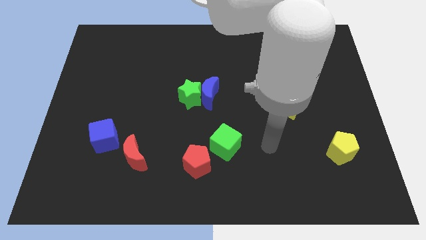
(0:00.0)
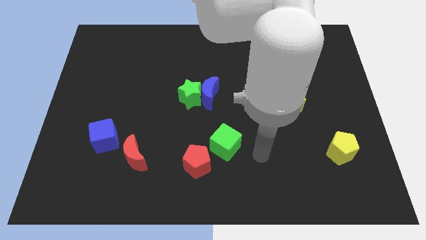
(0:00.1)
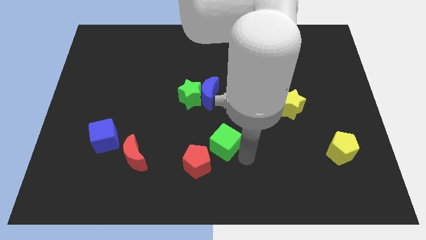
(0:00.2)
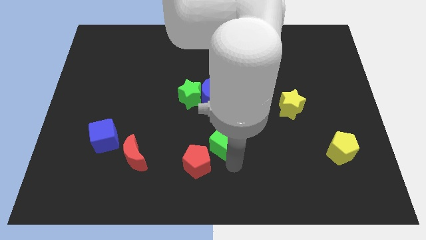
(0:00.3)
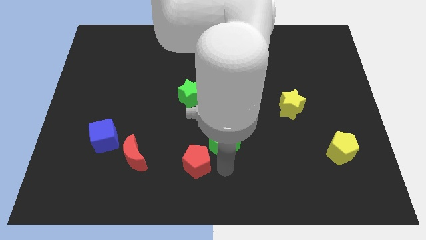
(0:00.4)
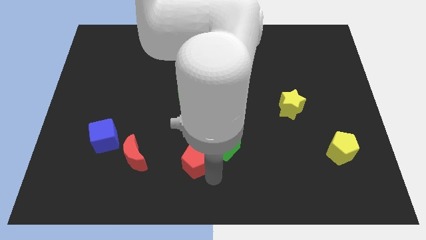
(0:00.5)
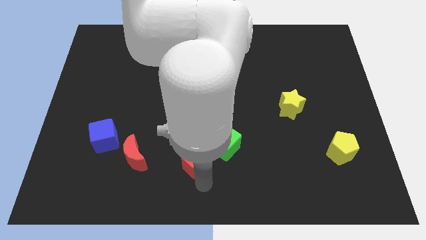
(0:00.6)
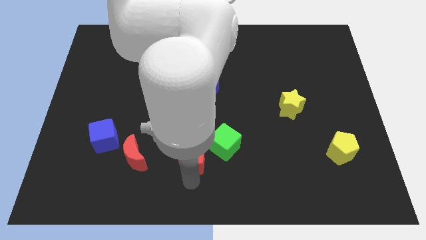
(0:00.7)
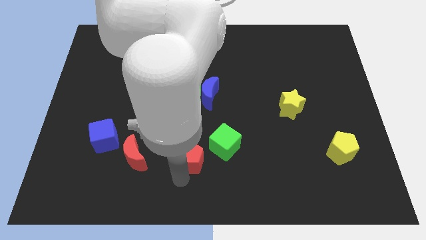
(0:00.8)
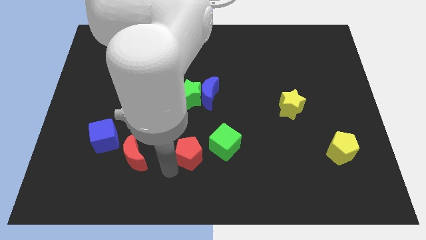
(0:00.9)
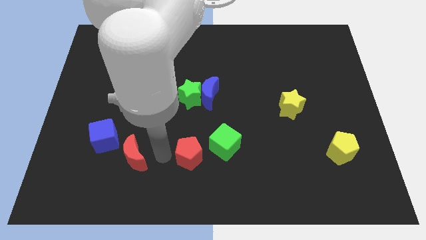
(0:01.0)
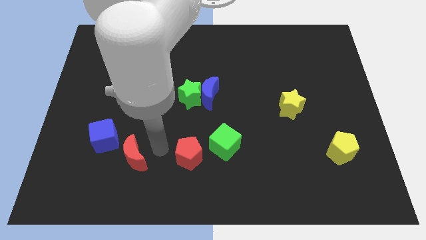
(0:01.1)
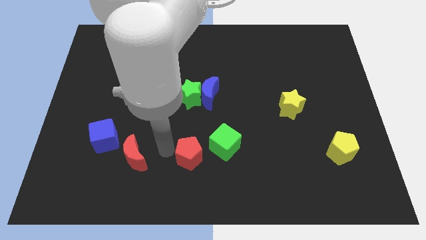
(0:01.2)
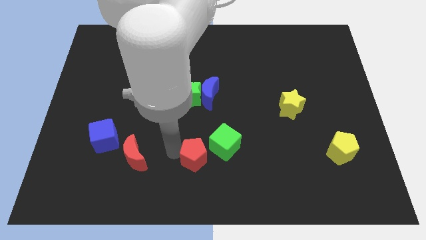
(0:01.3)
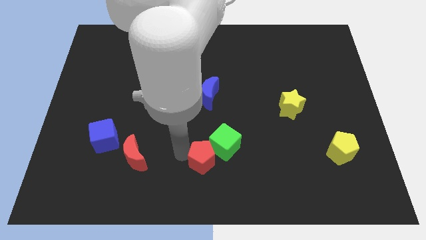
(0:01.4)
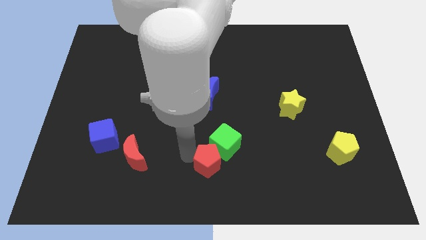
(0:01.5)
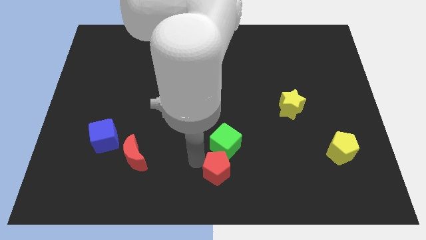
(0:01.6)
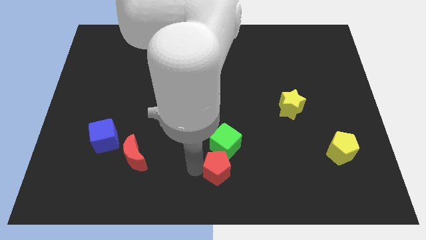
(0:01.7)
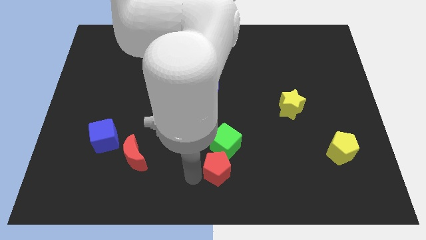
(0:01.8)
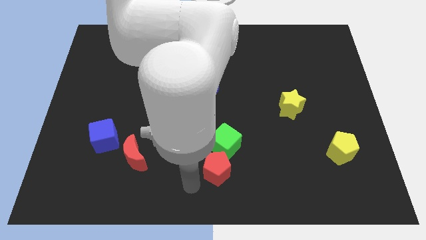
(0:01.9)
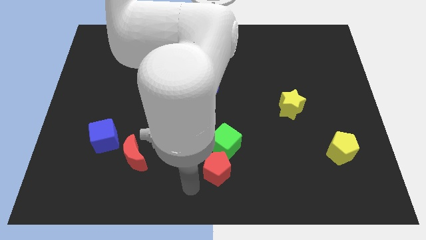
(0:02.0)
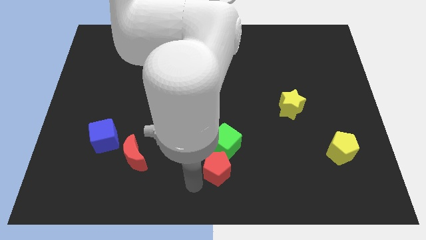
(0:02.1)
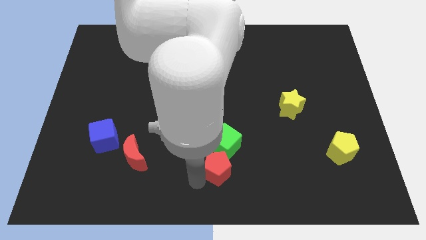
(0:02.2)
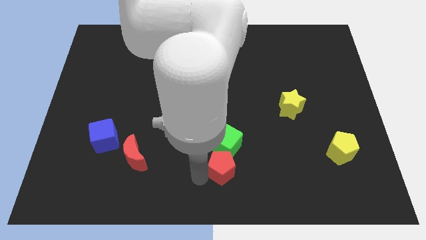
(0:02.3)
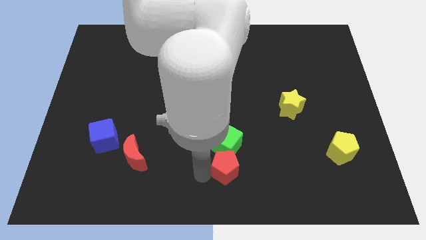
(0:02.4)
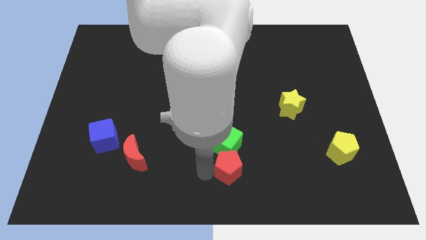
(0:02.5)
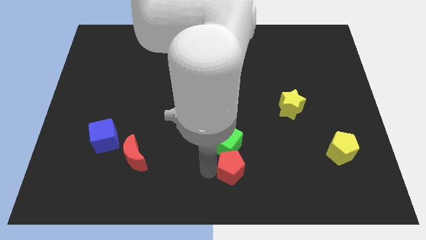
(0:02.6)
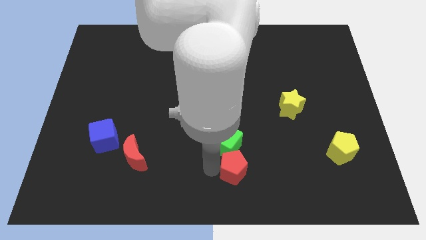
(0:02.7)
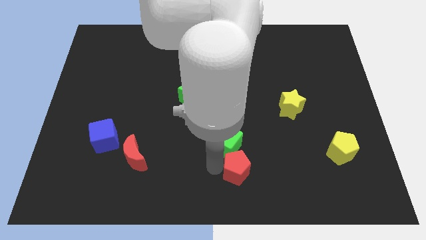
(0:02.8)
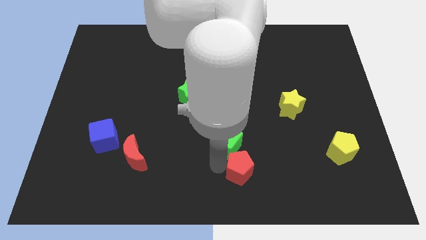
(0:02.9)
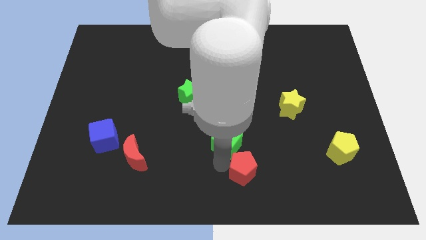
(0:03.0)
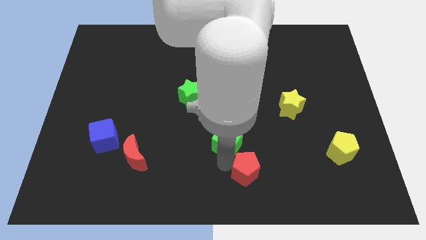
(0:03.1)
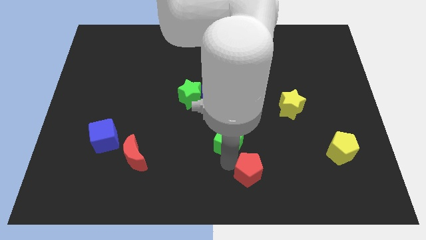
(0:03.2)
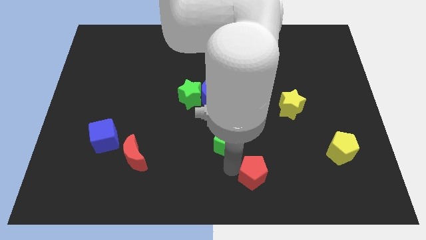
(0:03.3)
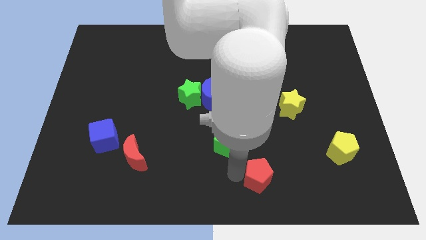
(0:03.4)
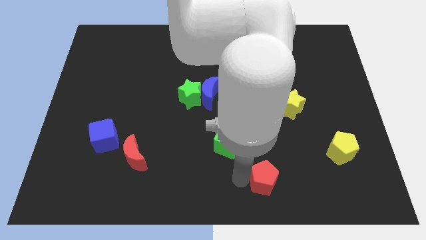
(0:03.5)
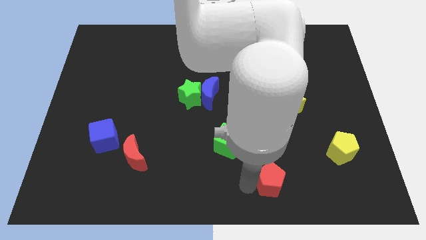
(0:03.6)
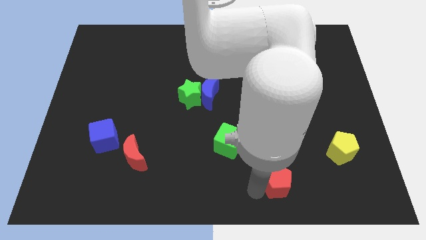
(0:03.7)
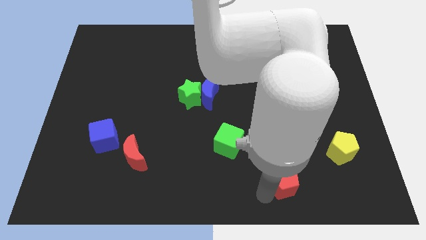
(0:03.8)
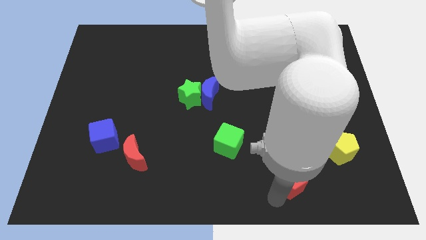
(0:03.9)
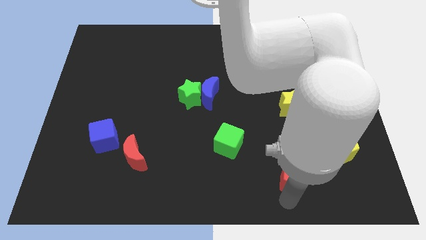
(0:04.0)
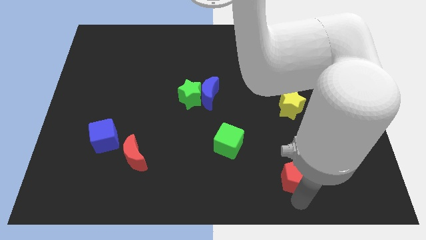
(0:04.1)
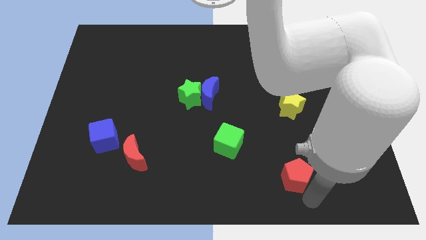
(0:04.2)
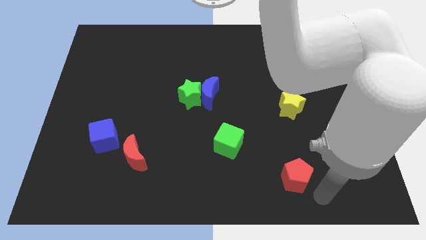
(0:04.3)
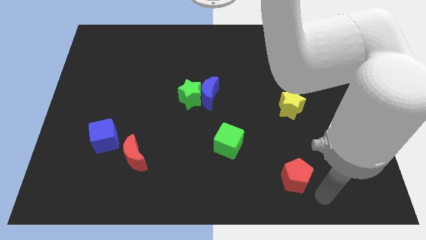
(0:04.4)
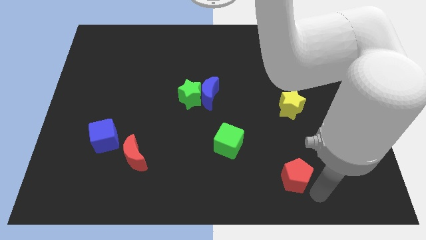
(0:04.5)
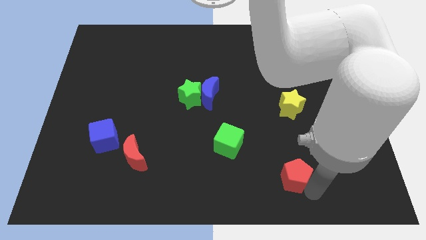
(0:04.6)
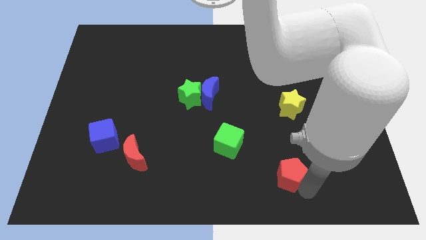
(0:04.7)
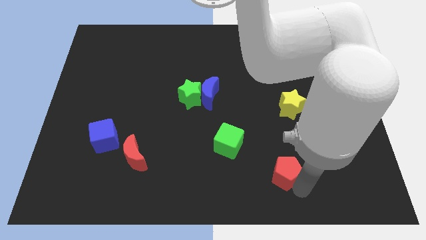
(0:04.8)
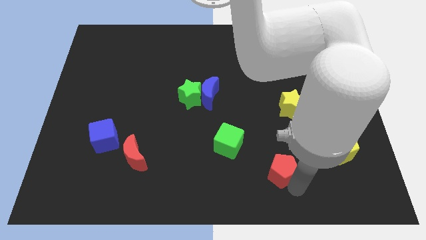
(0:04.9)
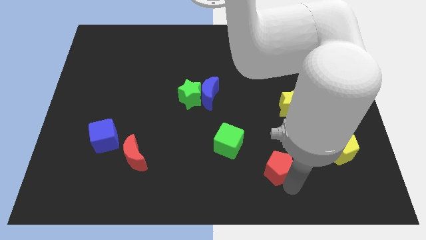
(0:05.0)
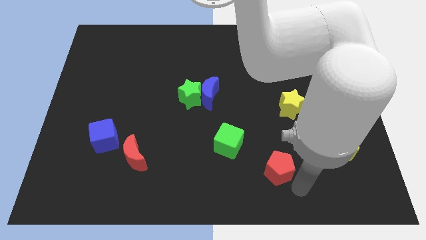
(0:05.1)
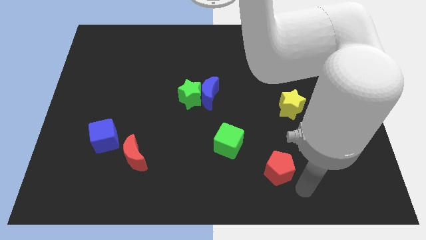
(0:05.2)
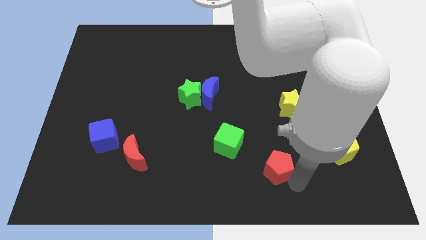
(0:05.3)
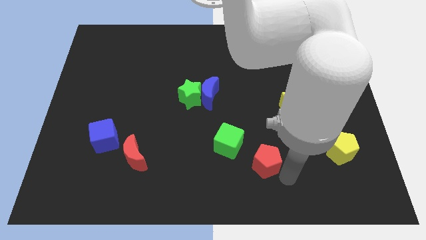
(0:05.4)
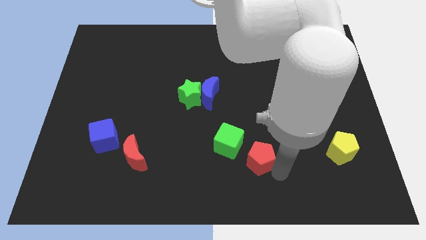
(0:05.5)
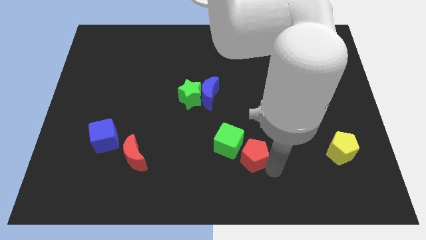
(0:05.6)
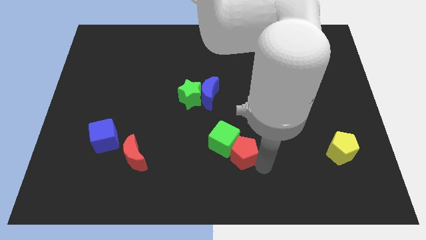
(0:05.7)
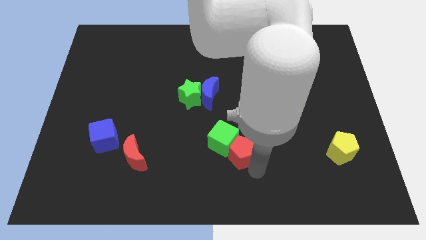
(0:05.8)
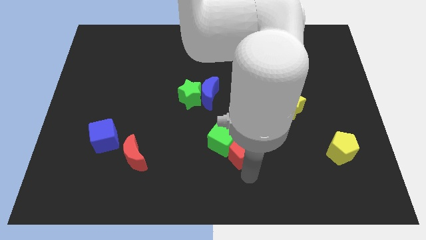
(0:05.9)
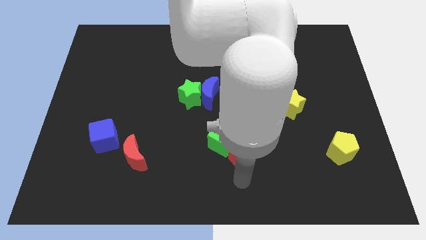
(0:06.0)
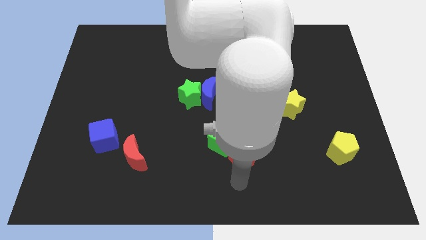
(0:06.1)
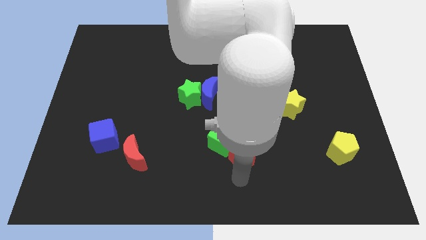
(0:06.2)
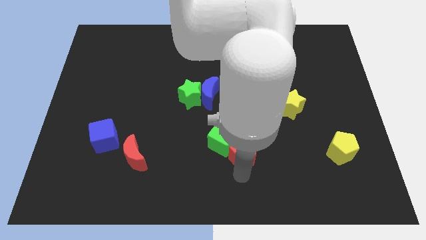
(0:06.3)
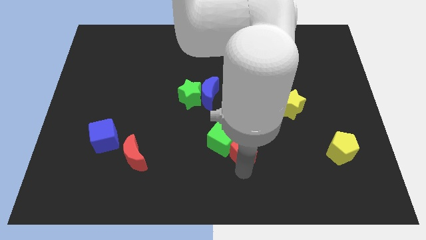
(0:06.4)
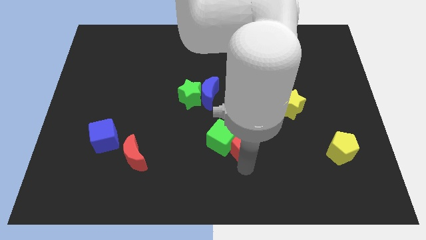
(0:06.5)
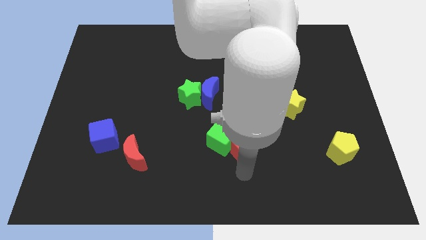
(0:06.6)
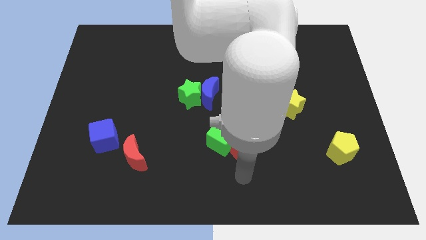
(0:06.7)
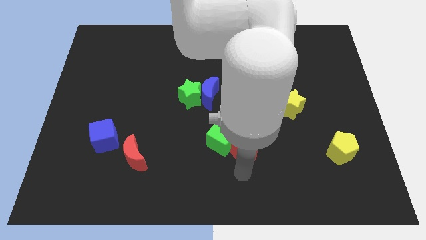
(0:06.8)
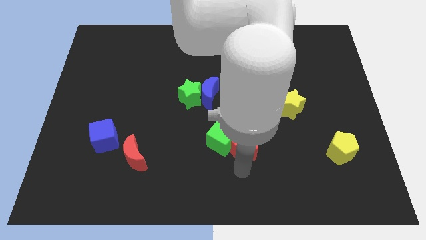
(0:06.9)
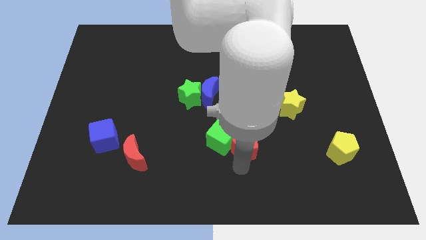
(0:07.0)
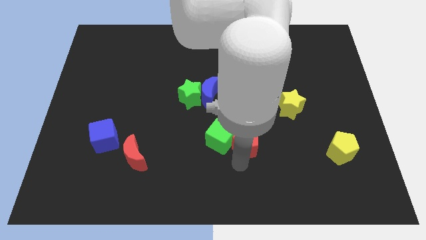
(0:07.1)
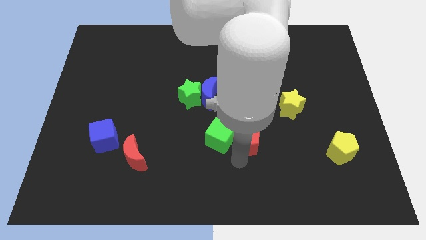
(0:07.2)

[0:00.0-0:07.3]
put the red pentagon to the top right side of the green cube

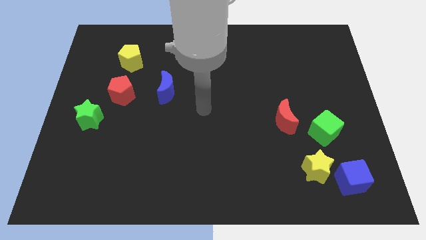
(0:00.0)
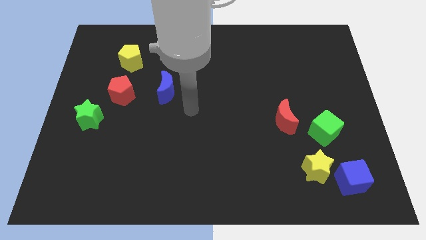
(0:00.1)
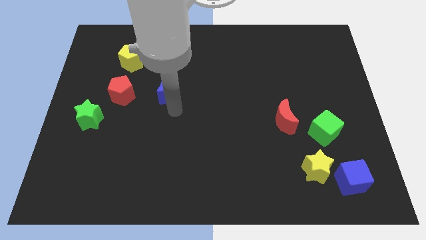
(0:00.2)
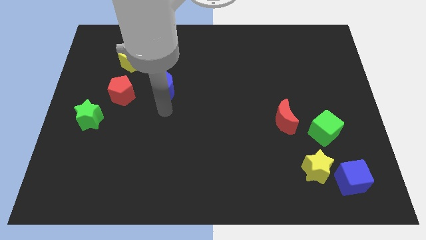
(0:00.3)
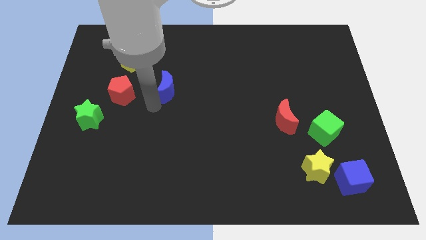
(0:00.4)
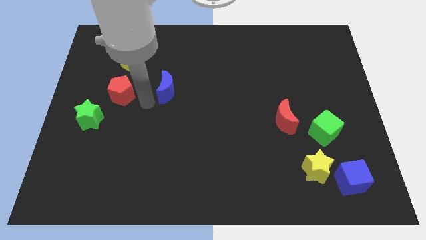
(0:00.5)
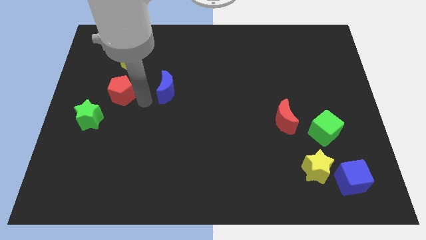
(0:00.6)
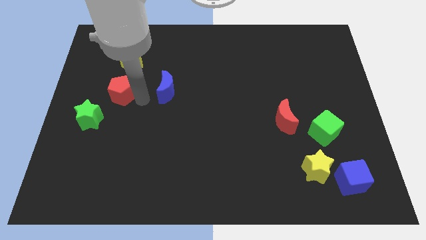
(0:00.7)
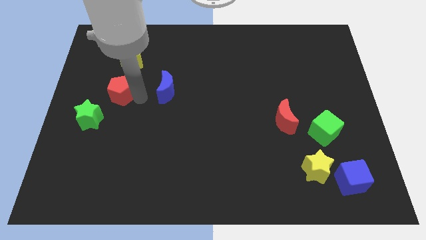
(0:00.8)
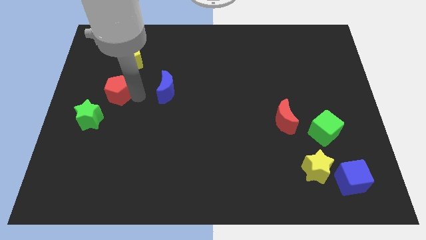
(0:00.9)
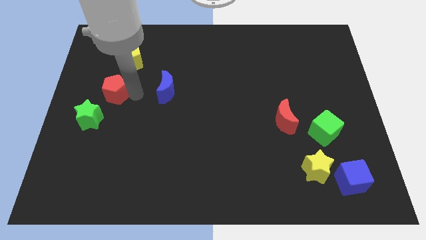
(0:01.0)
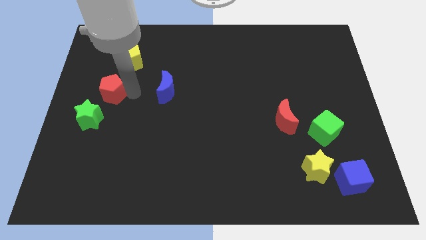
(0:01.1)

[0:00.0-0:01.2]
push the red pentagon above the green star
